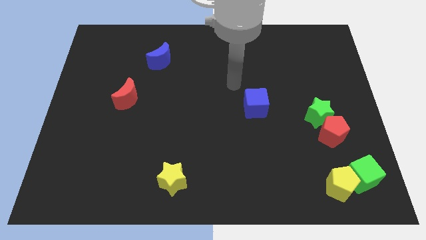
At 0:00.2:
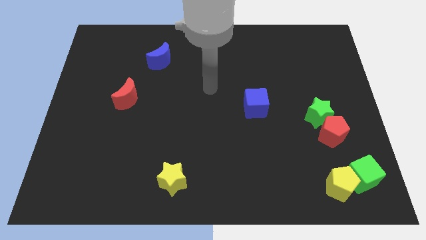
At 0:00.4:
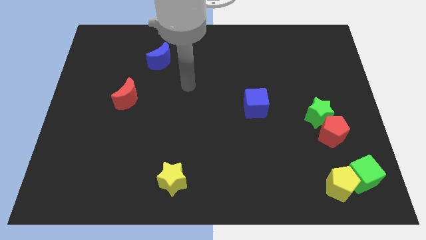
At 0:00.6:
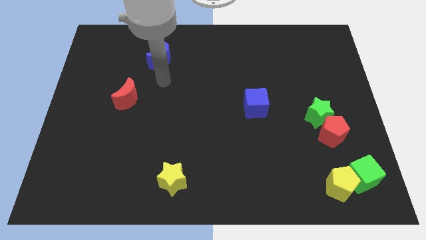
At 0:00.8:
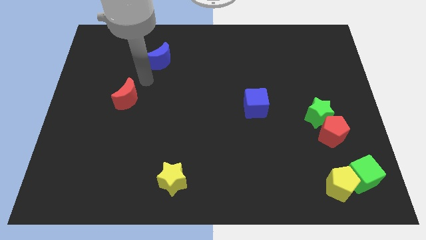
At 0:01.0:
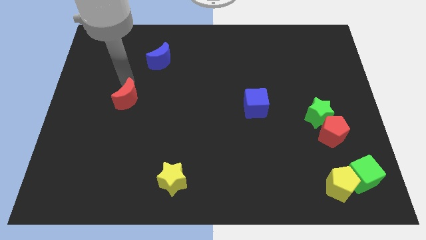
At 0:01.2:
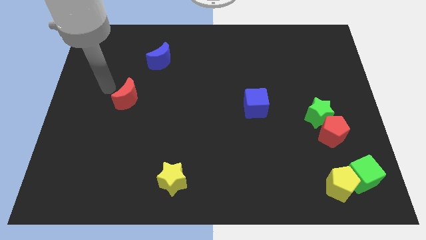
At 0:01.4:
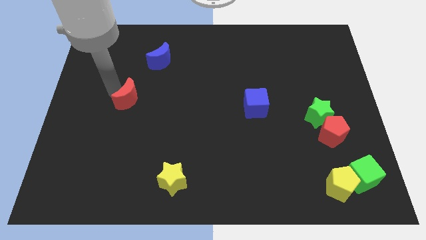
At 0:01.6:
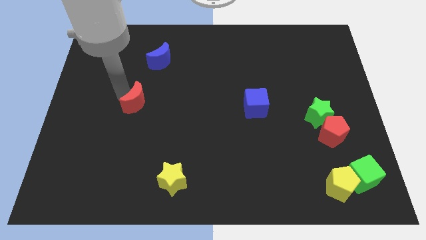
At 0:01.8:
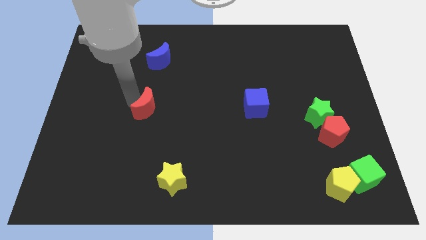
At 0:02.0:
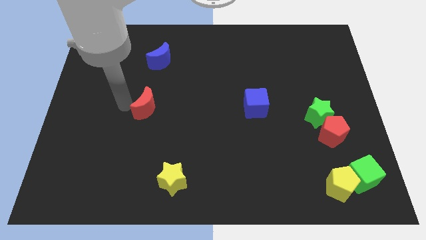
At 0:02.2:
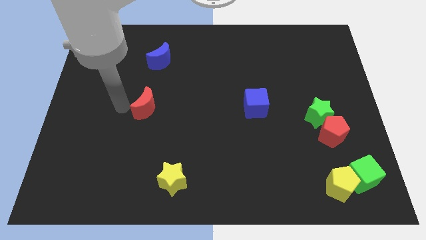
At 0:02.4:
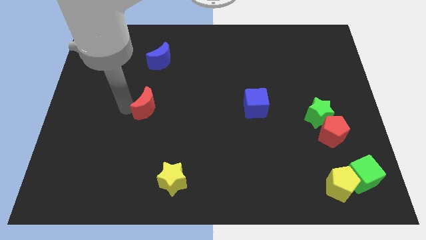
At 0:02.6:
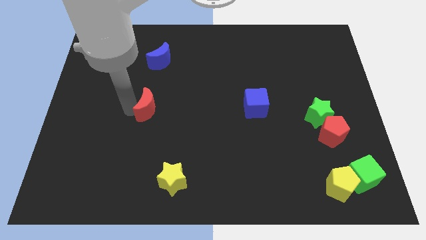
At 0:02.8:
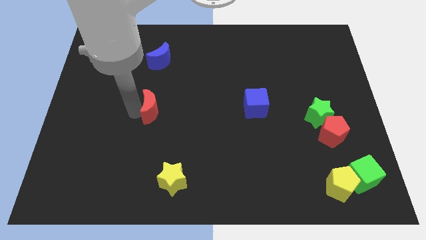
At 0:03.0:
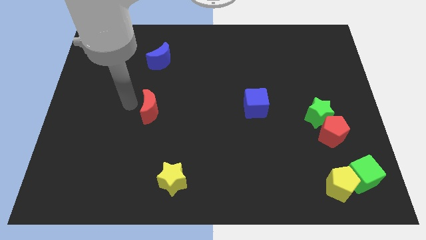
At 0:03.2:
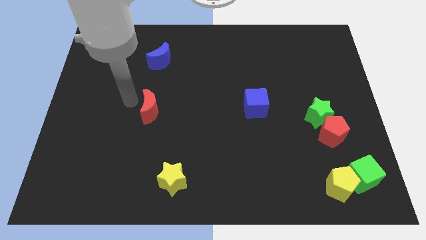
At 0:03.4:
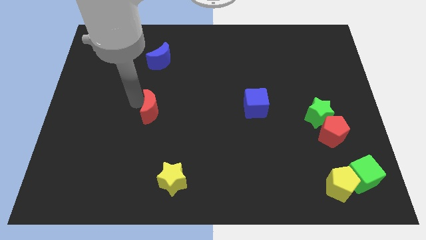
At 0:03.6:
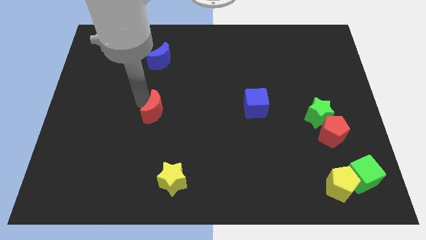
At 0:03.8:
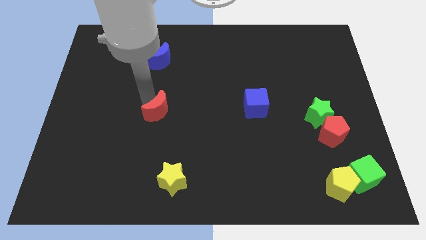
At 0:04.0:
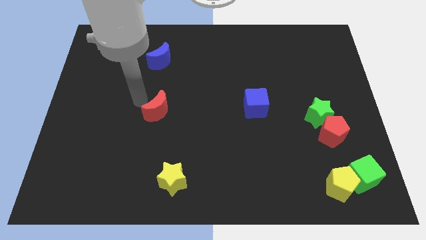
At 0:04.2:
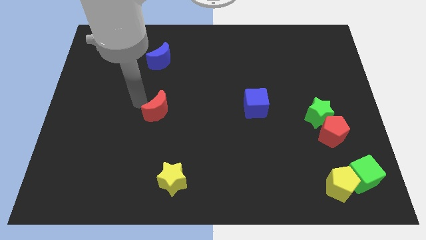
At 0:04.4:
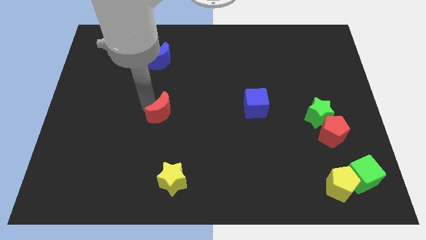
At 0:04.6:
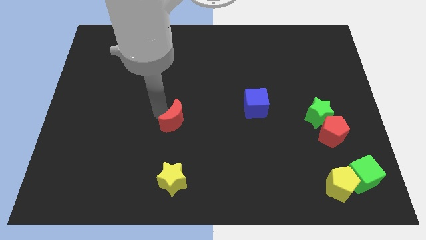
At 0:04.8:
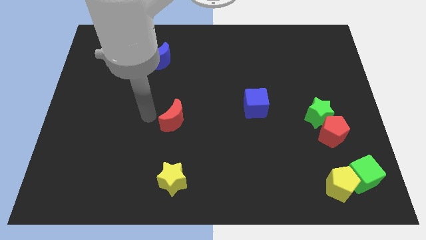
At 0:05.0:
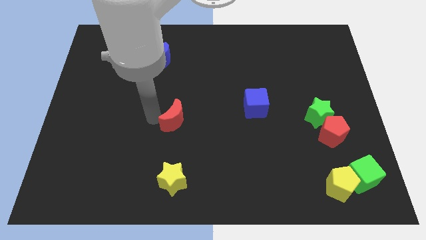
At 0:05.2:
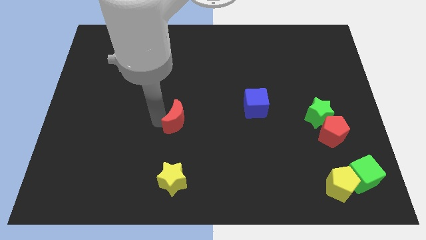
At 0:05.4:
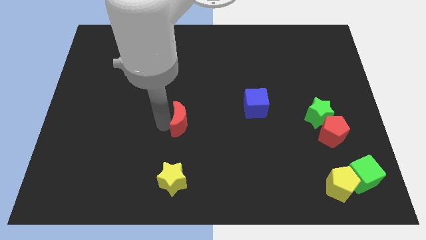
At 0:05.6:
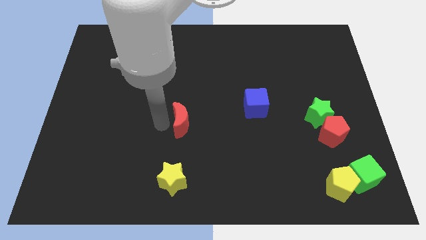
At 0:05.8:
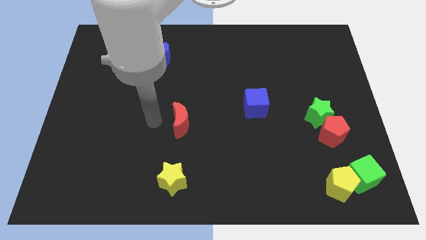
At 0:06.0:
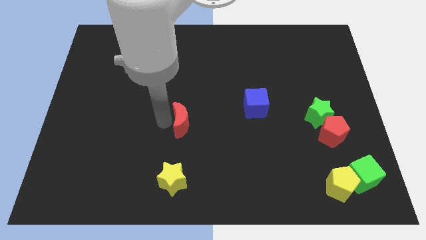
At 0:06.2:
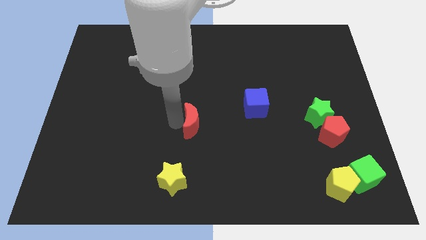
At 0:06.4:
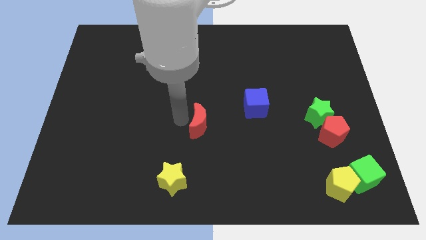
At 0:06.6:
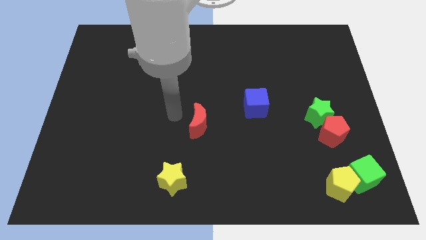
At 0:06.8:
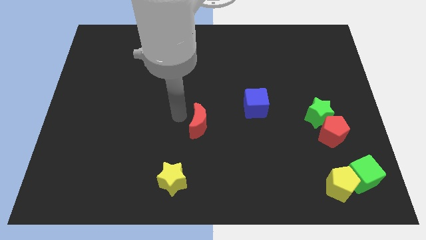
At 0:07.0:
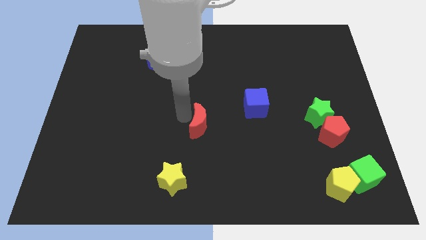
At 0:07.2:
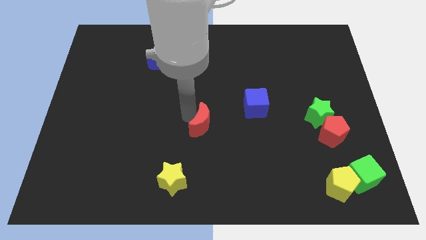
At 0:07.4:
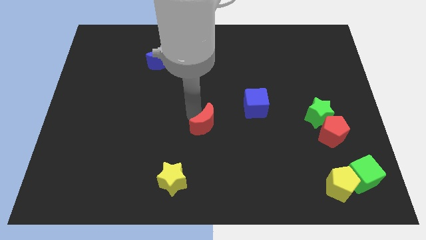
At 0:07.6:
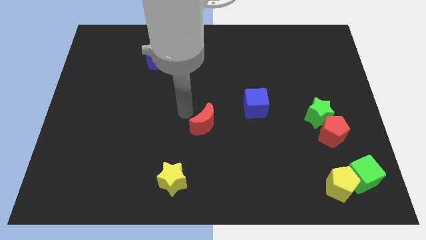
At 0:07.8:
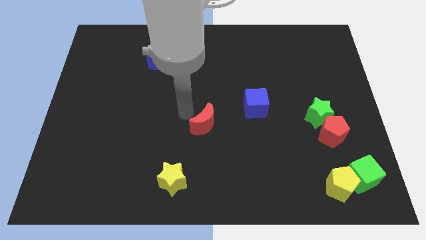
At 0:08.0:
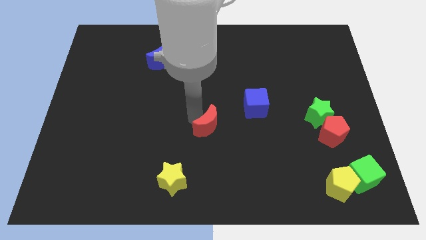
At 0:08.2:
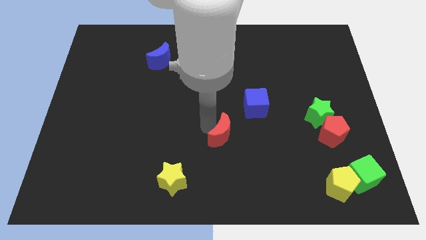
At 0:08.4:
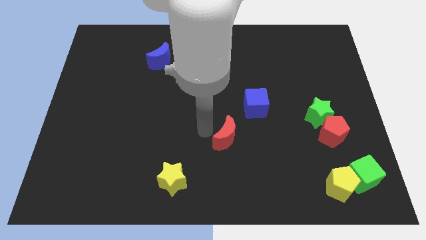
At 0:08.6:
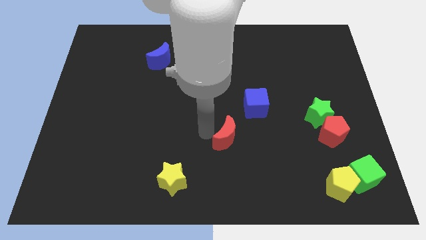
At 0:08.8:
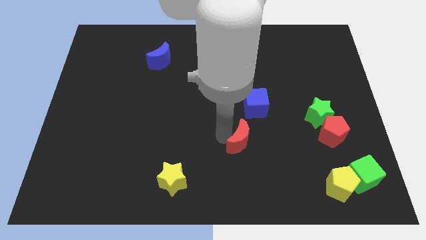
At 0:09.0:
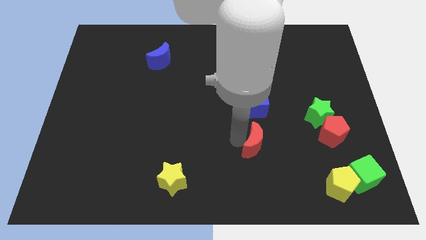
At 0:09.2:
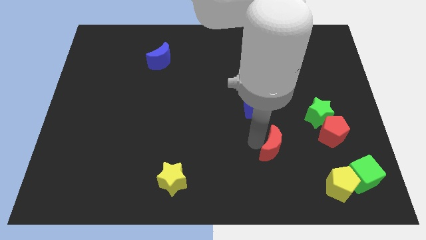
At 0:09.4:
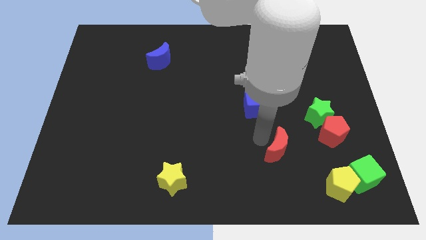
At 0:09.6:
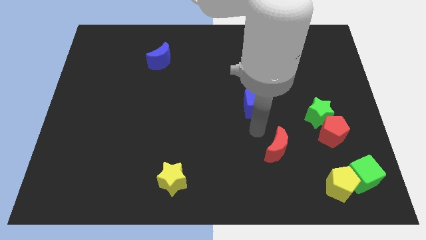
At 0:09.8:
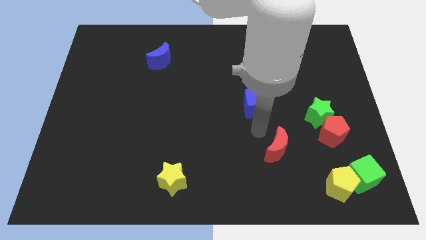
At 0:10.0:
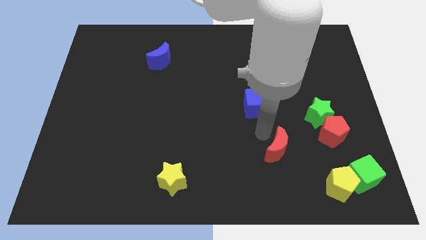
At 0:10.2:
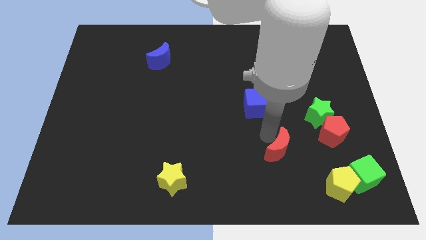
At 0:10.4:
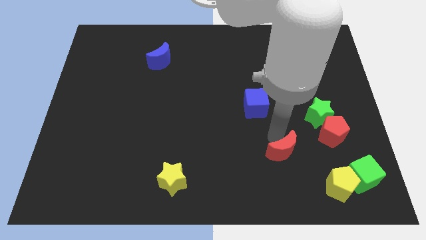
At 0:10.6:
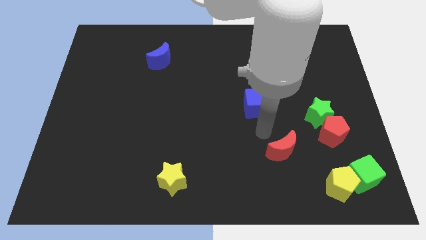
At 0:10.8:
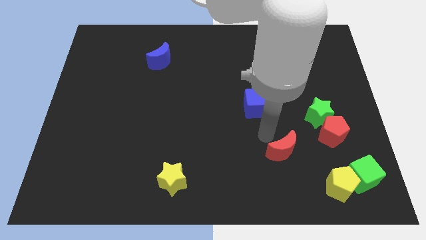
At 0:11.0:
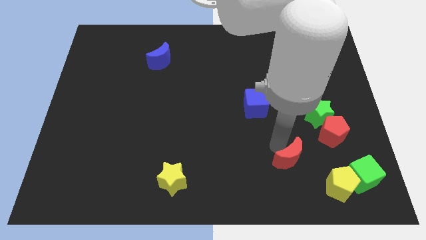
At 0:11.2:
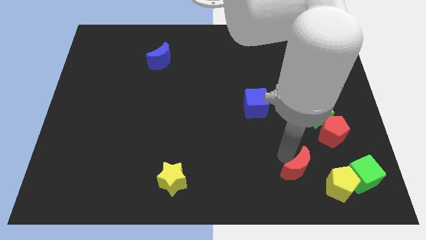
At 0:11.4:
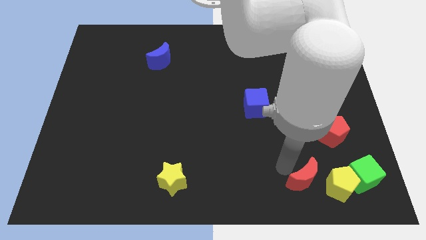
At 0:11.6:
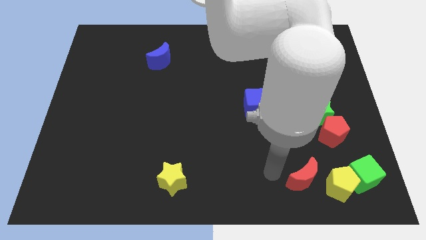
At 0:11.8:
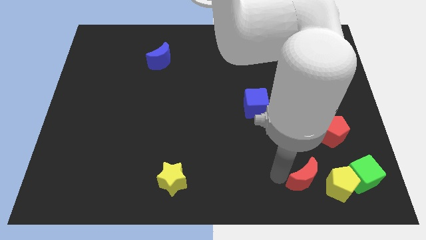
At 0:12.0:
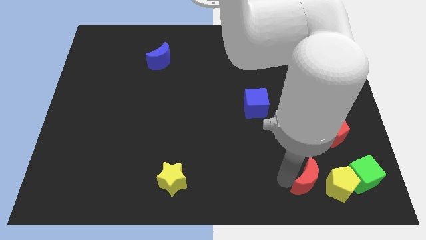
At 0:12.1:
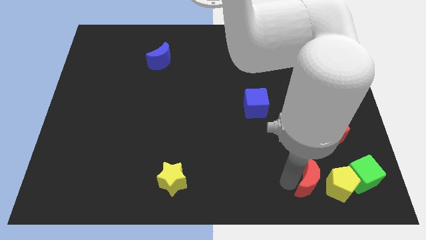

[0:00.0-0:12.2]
move the red moon close to the yellow pentagon

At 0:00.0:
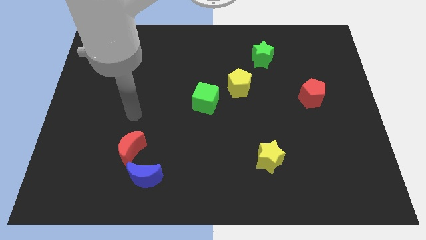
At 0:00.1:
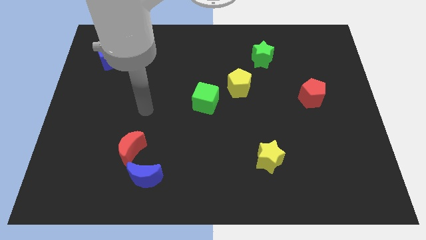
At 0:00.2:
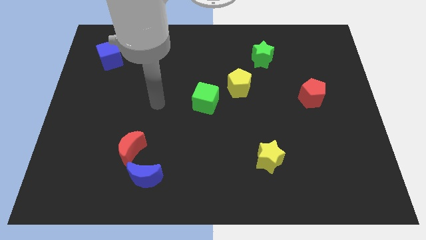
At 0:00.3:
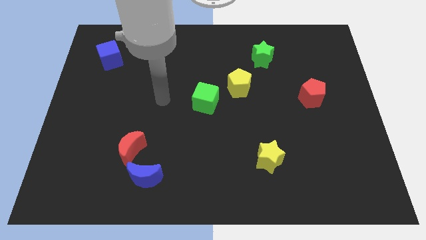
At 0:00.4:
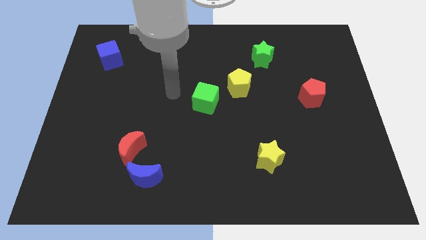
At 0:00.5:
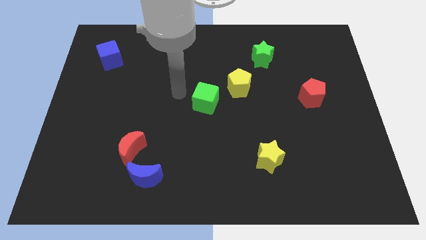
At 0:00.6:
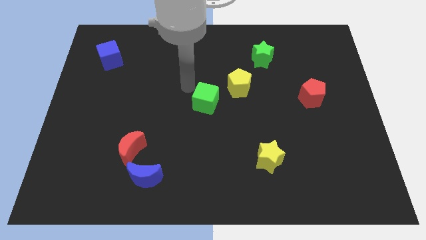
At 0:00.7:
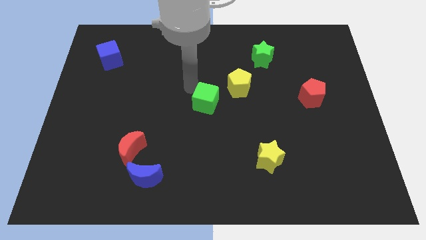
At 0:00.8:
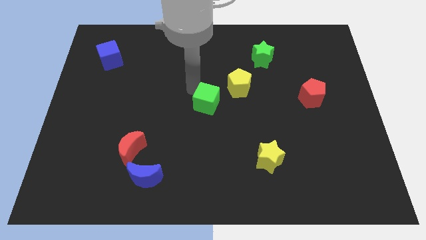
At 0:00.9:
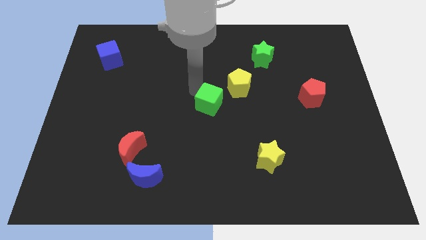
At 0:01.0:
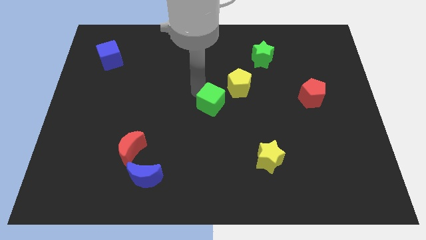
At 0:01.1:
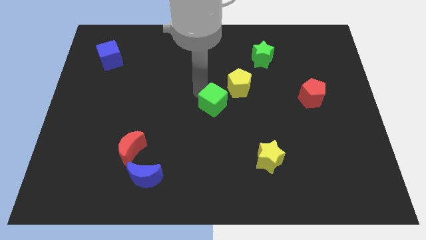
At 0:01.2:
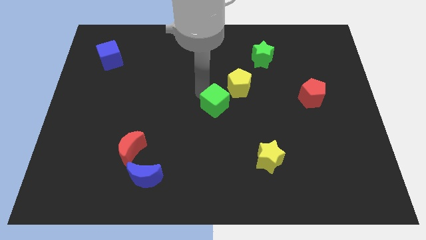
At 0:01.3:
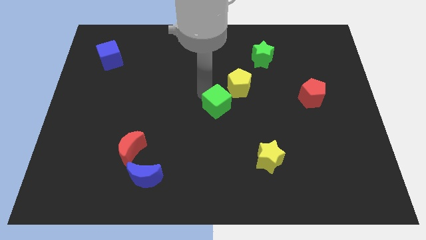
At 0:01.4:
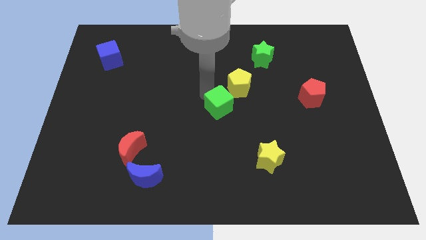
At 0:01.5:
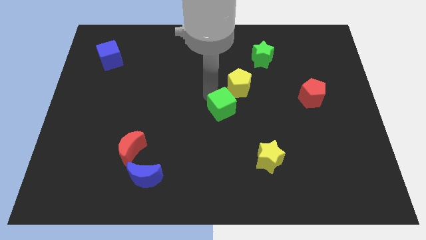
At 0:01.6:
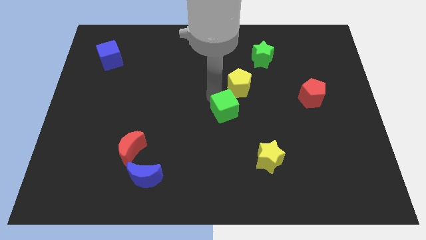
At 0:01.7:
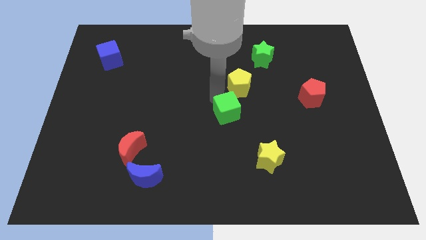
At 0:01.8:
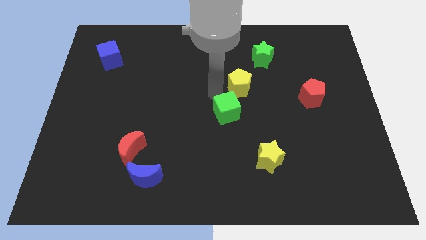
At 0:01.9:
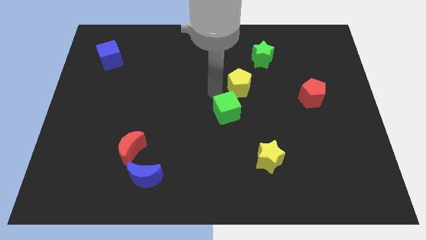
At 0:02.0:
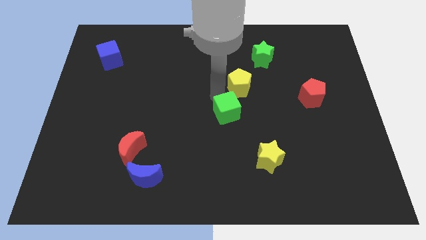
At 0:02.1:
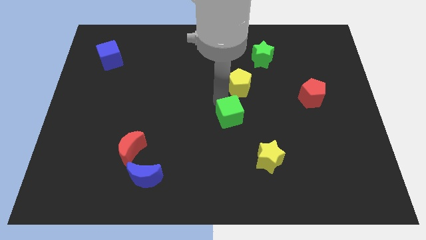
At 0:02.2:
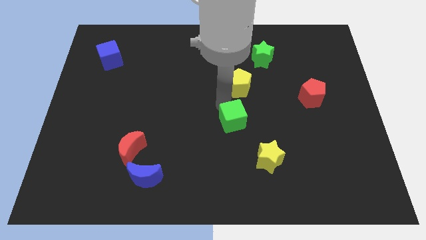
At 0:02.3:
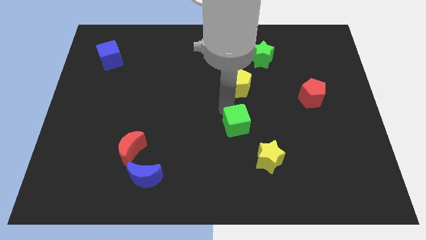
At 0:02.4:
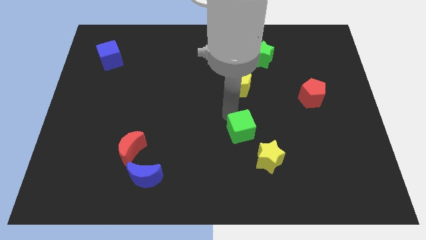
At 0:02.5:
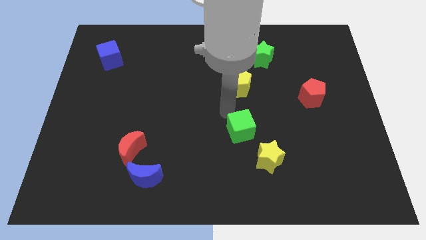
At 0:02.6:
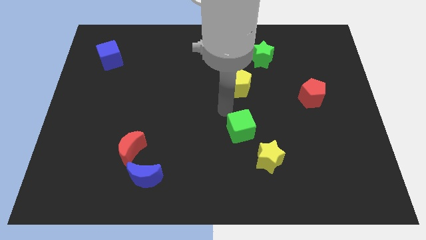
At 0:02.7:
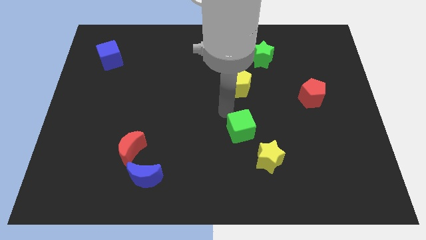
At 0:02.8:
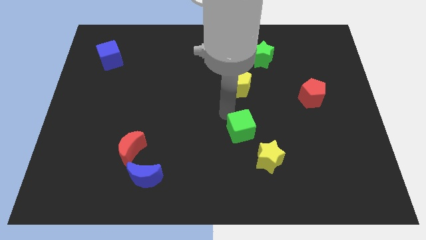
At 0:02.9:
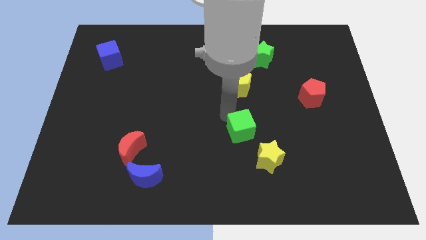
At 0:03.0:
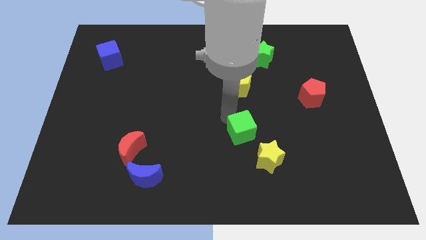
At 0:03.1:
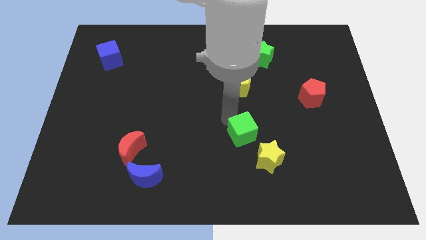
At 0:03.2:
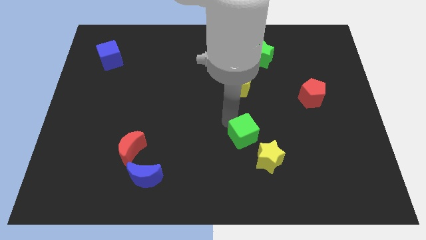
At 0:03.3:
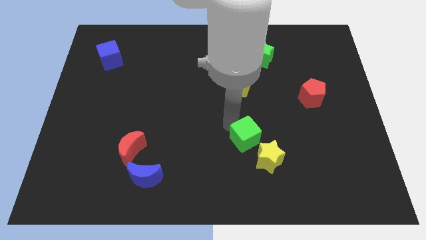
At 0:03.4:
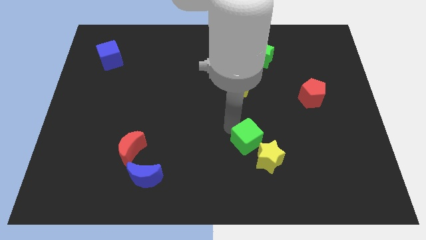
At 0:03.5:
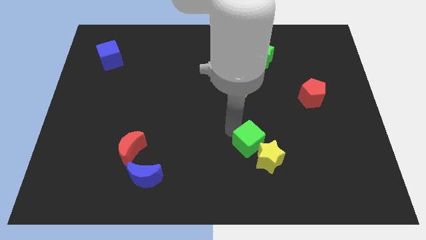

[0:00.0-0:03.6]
move the green cube close to the yellow star
